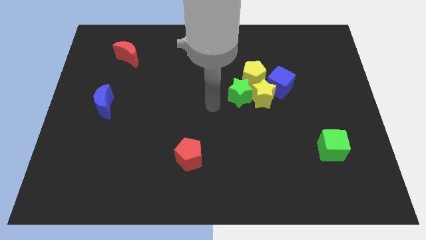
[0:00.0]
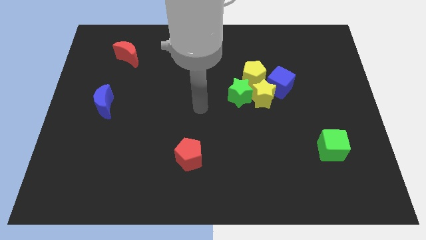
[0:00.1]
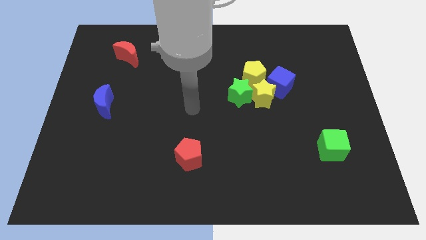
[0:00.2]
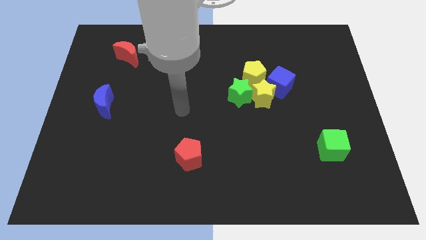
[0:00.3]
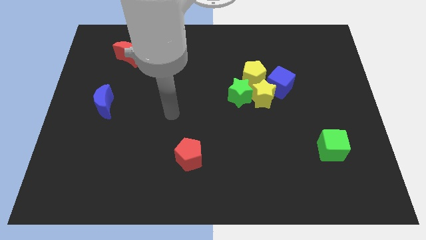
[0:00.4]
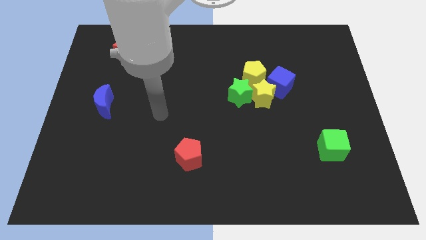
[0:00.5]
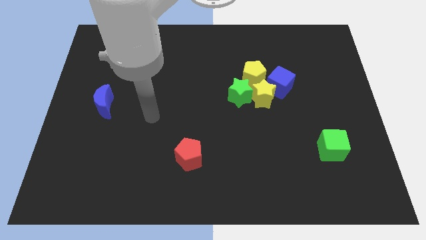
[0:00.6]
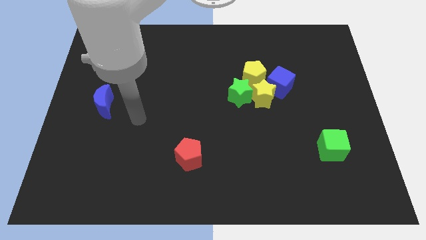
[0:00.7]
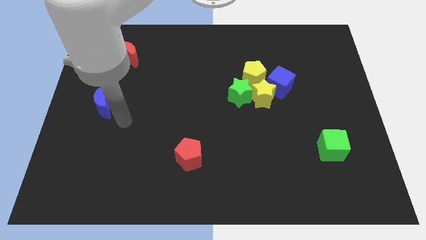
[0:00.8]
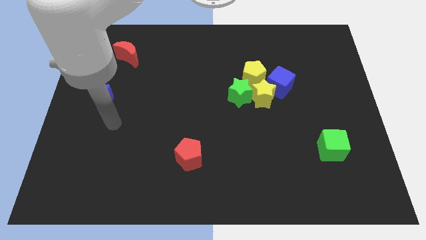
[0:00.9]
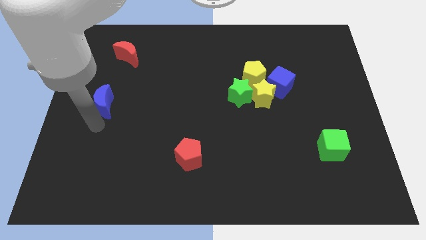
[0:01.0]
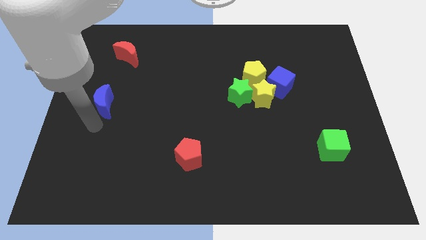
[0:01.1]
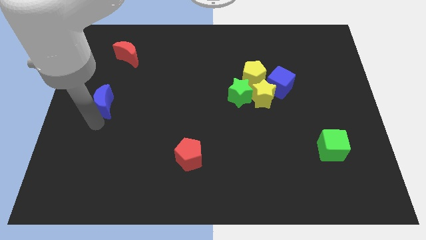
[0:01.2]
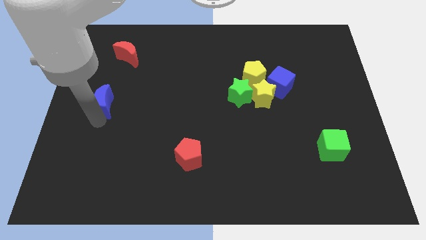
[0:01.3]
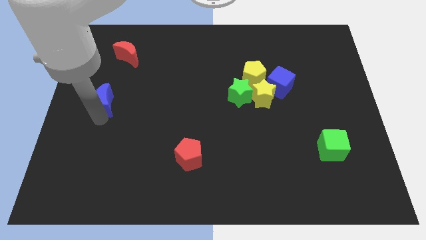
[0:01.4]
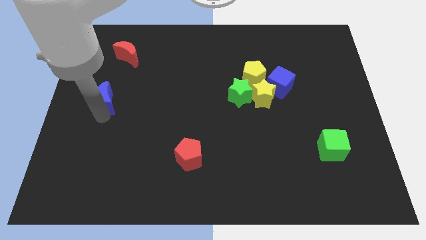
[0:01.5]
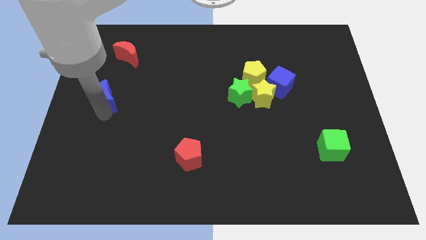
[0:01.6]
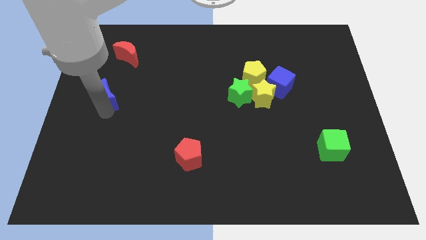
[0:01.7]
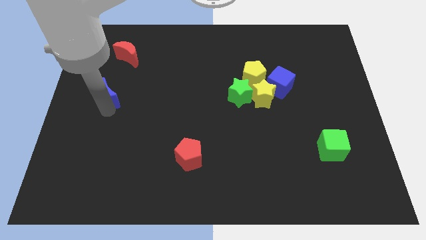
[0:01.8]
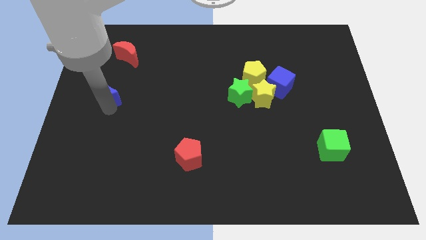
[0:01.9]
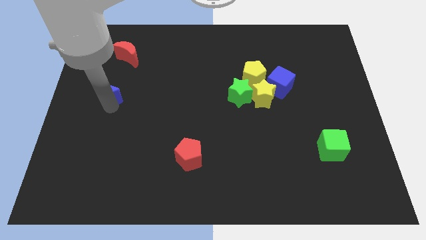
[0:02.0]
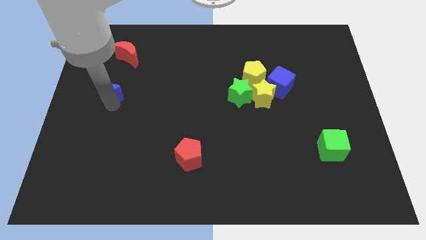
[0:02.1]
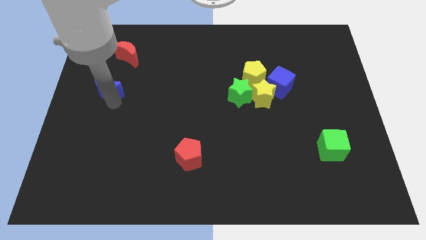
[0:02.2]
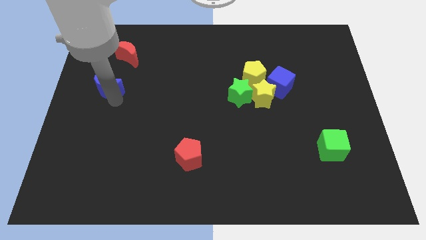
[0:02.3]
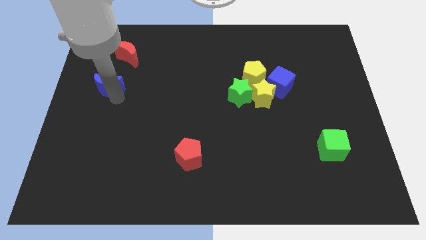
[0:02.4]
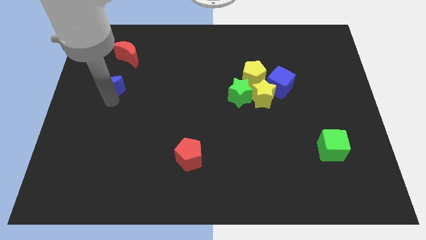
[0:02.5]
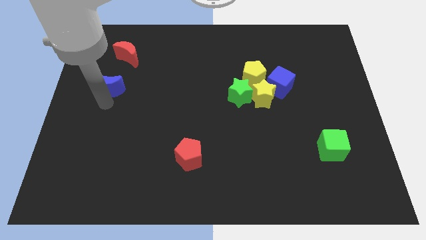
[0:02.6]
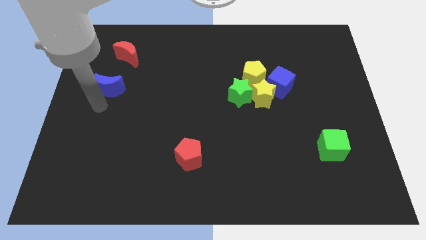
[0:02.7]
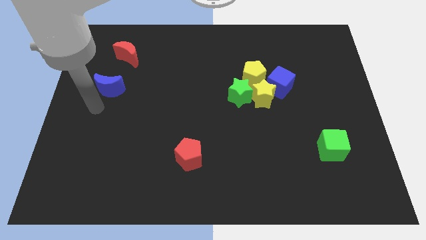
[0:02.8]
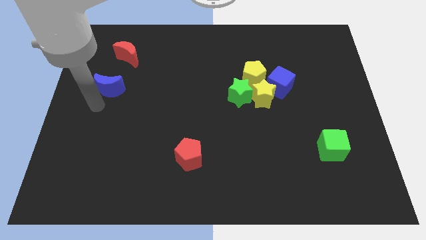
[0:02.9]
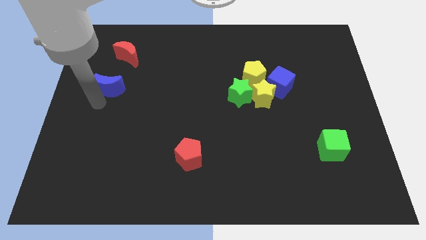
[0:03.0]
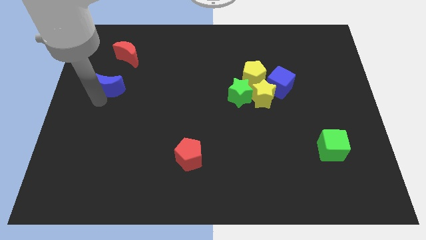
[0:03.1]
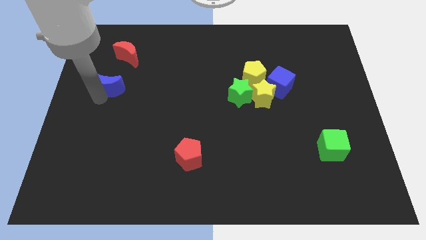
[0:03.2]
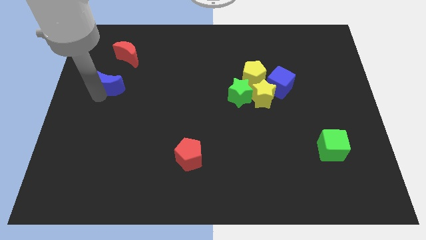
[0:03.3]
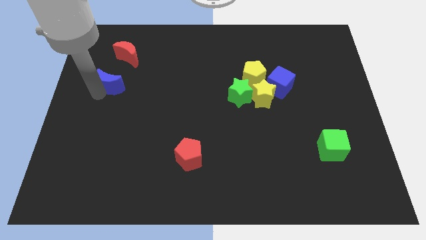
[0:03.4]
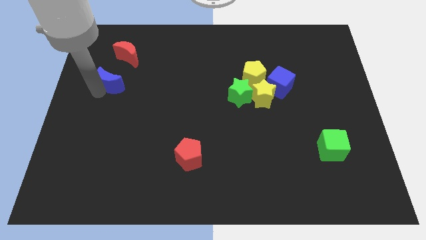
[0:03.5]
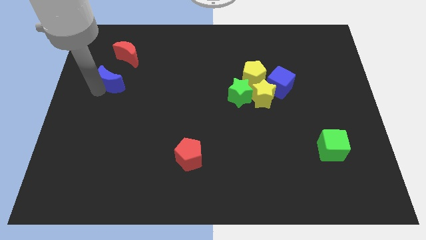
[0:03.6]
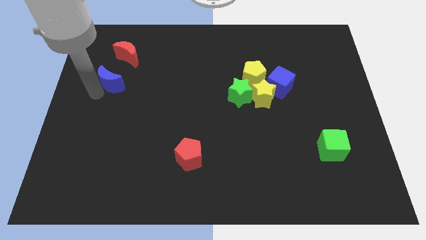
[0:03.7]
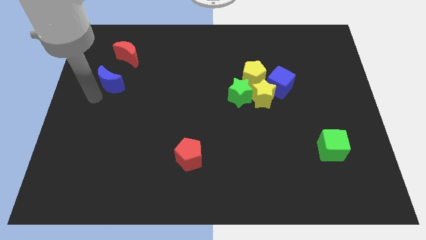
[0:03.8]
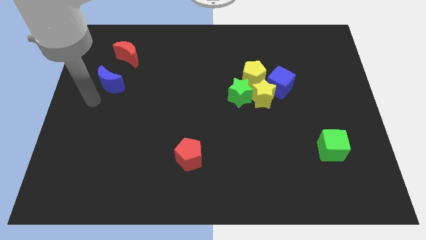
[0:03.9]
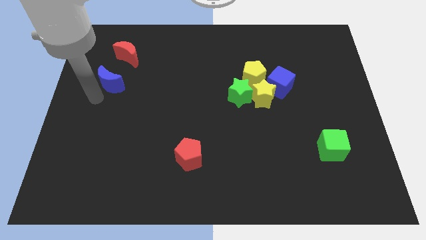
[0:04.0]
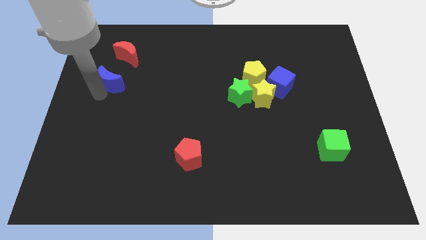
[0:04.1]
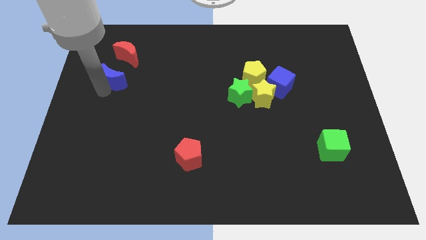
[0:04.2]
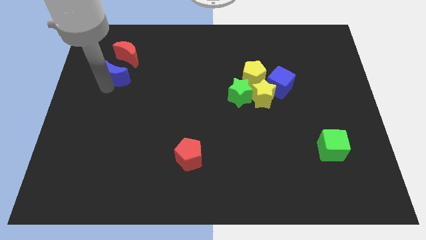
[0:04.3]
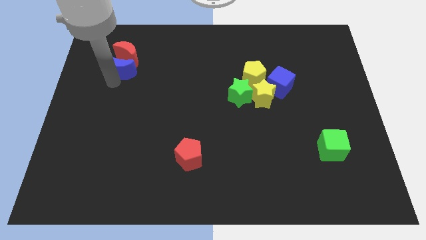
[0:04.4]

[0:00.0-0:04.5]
push the blue moon towards the red moon

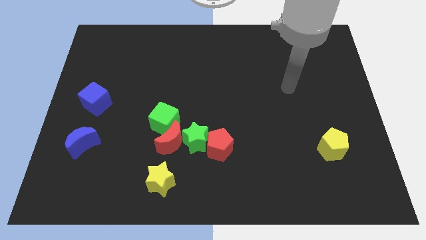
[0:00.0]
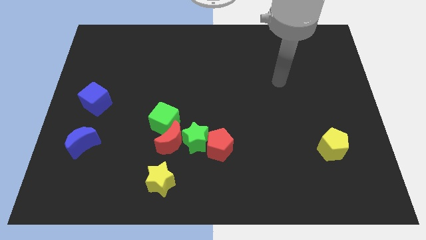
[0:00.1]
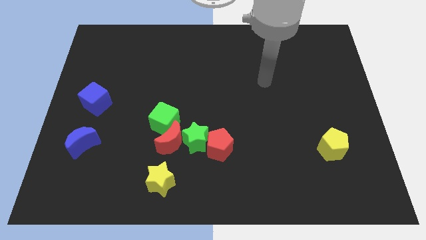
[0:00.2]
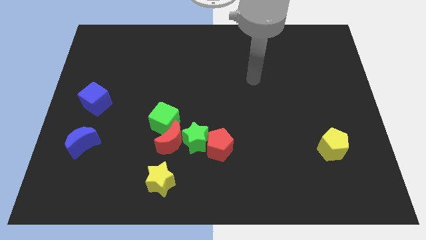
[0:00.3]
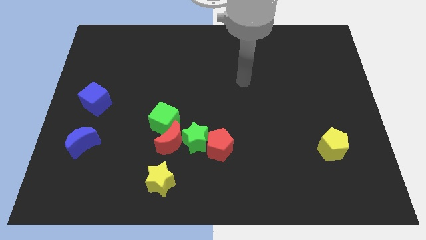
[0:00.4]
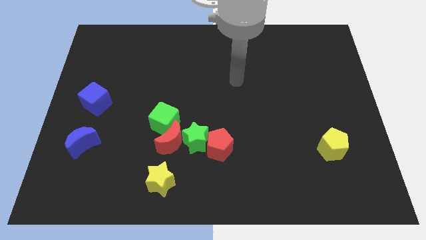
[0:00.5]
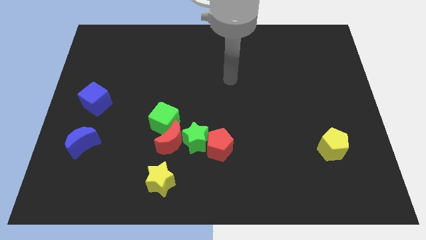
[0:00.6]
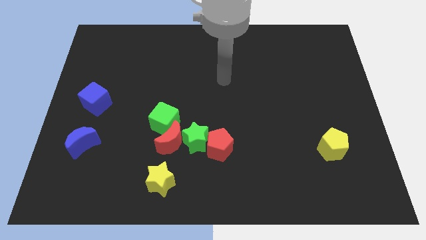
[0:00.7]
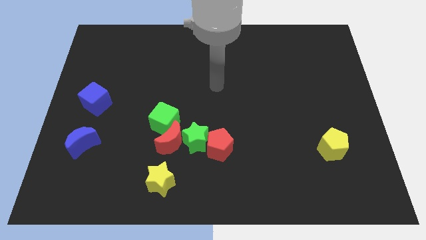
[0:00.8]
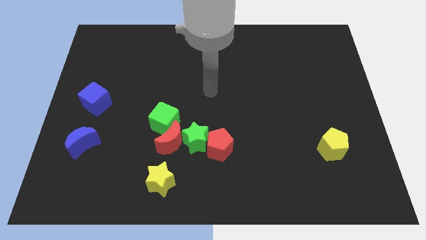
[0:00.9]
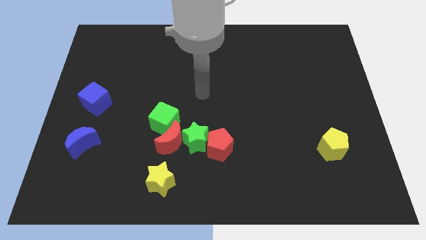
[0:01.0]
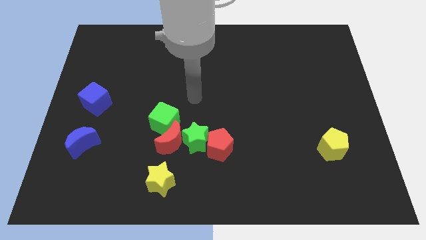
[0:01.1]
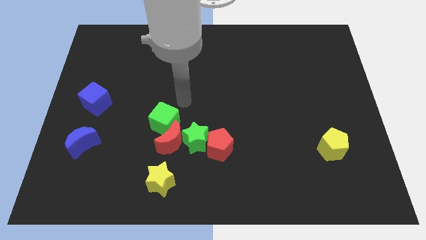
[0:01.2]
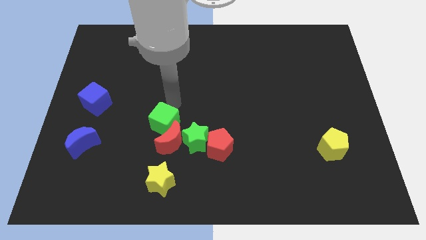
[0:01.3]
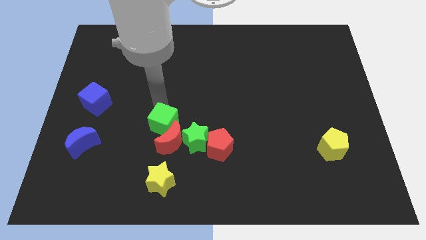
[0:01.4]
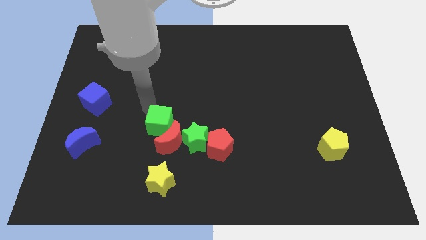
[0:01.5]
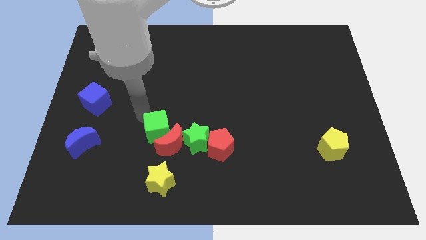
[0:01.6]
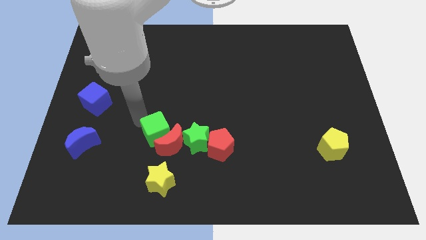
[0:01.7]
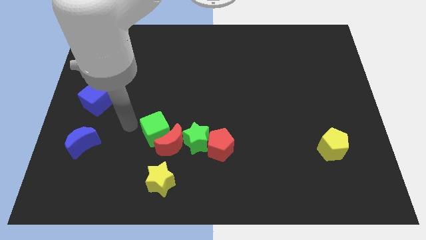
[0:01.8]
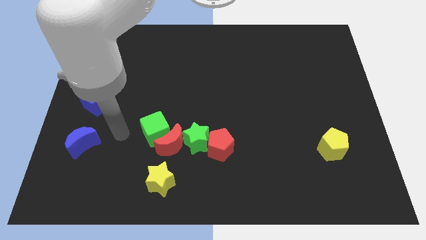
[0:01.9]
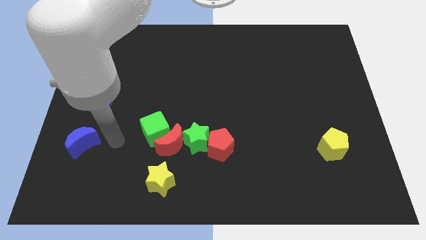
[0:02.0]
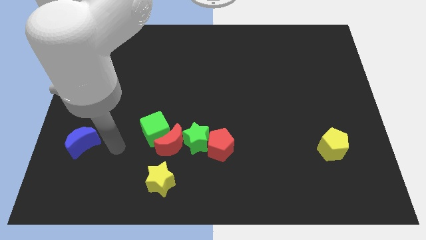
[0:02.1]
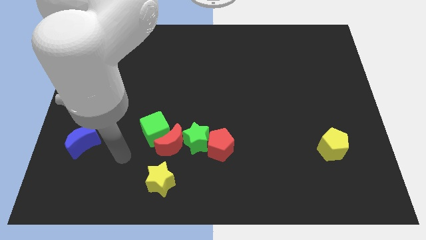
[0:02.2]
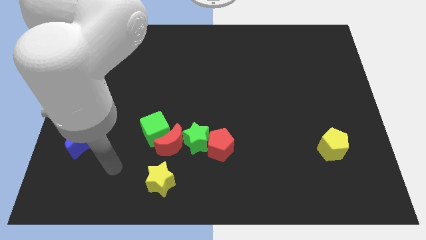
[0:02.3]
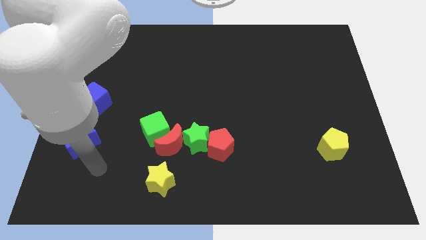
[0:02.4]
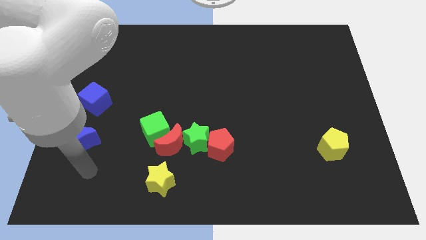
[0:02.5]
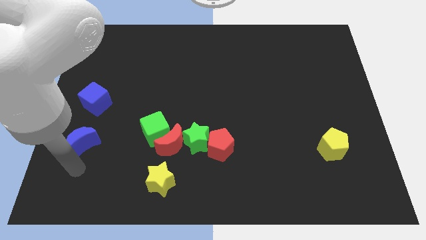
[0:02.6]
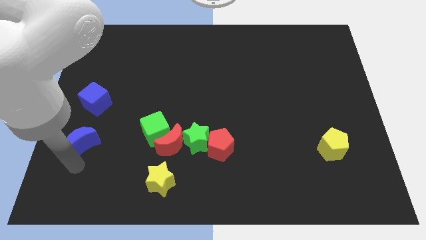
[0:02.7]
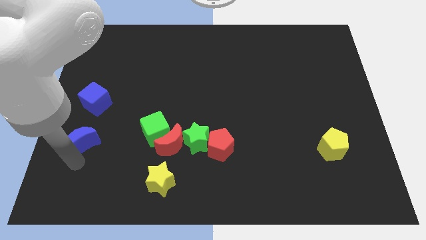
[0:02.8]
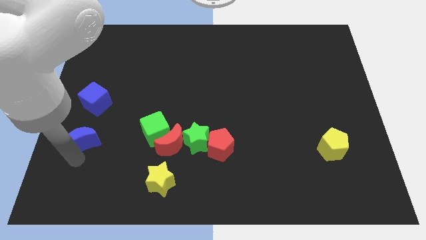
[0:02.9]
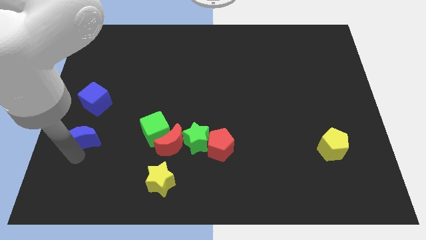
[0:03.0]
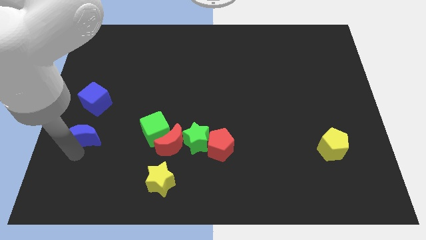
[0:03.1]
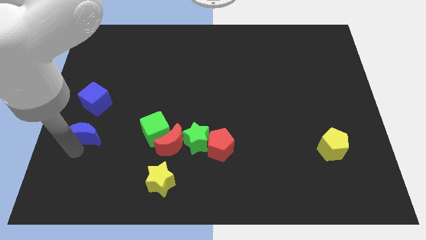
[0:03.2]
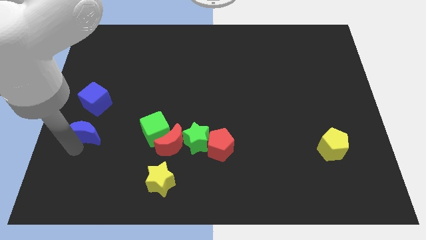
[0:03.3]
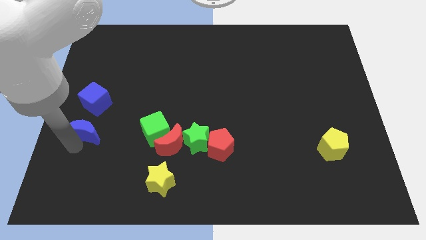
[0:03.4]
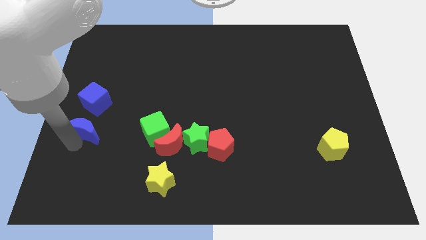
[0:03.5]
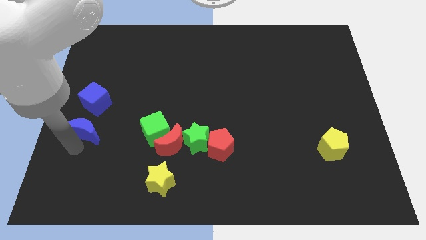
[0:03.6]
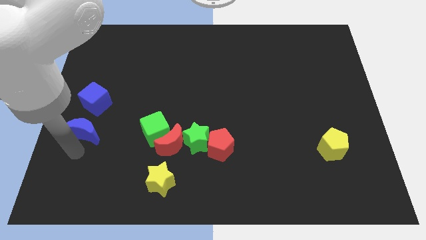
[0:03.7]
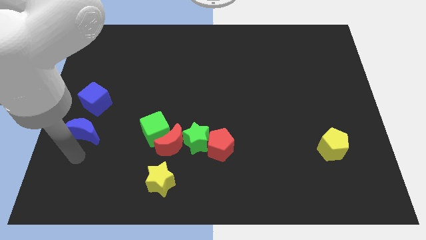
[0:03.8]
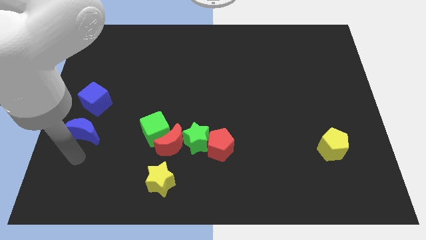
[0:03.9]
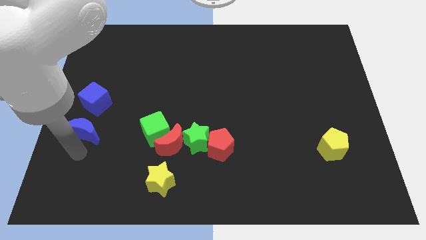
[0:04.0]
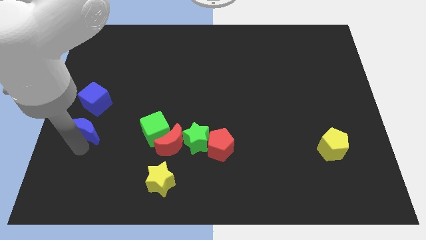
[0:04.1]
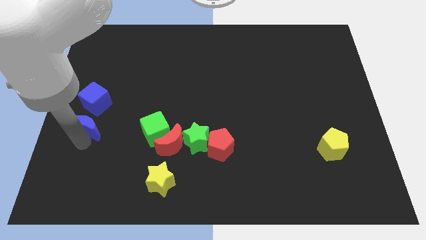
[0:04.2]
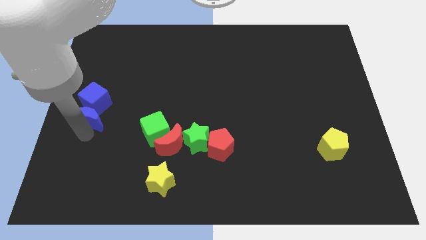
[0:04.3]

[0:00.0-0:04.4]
slide the blue moon next to the blue cube
